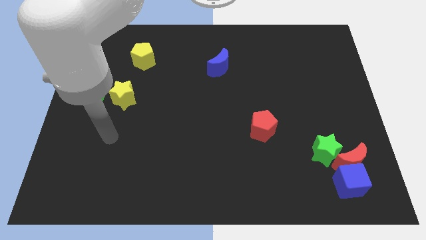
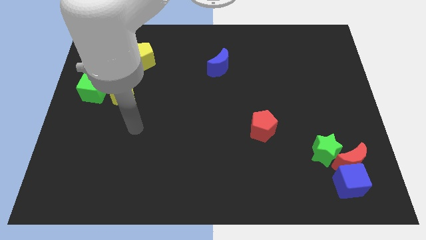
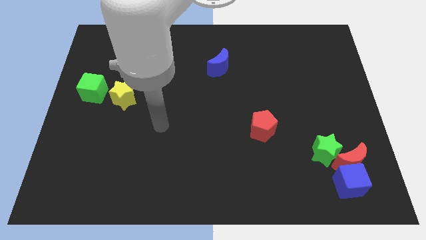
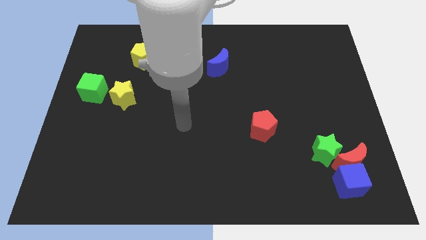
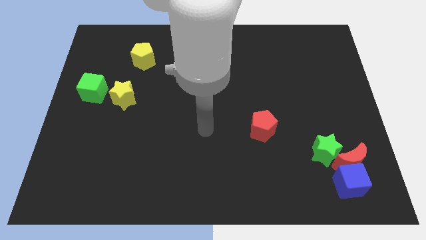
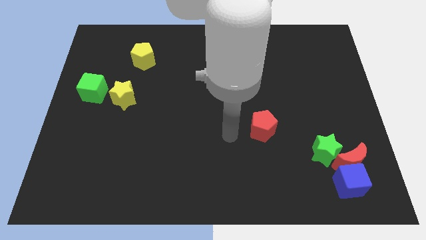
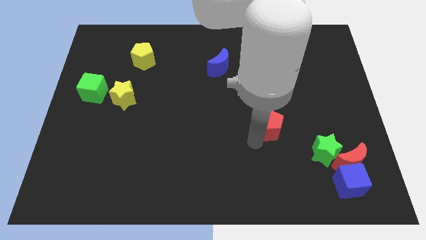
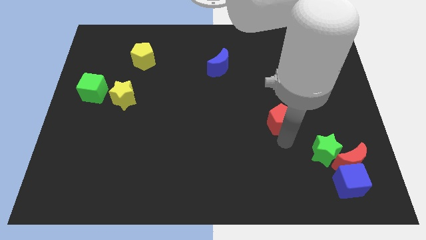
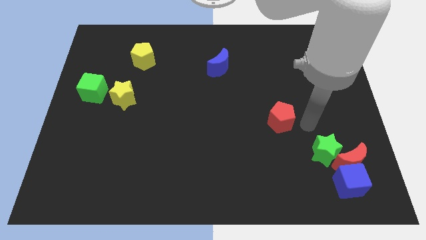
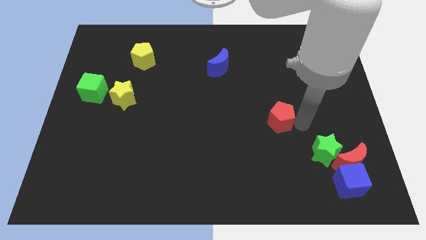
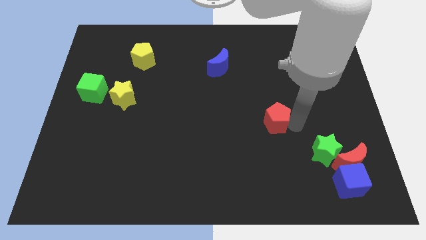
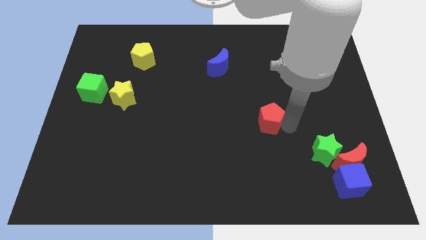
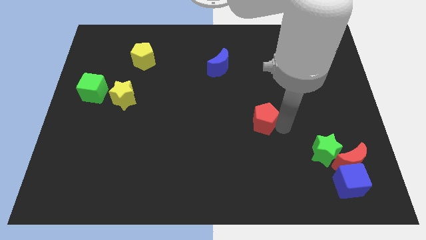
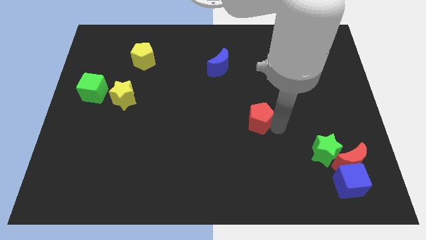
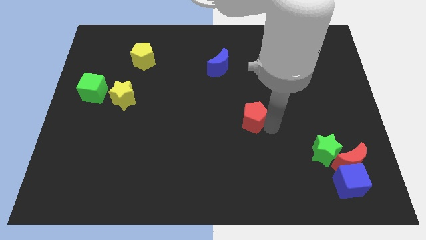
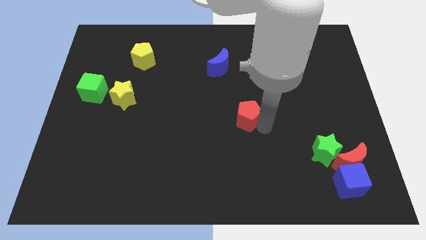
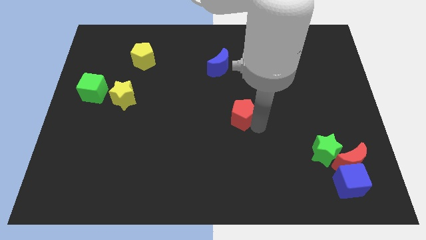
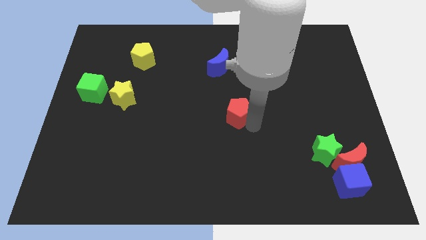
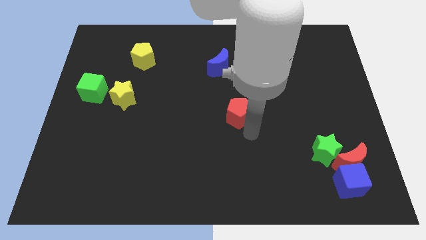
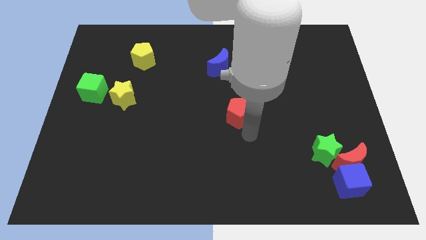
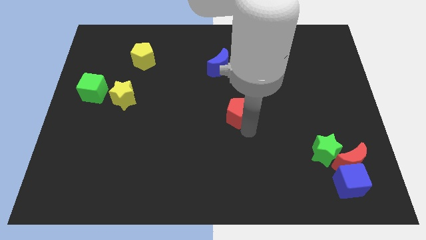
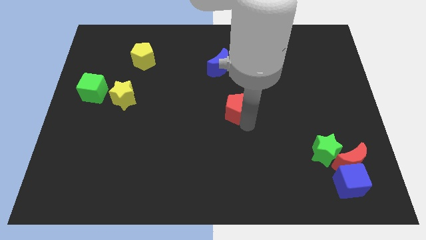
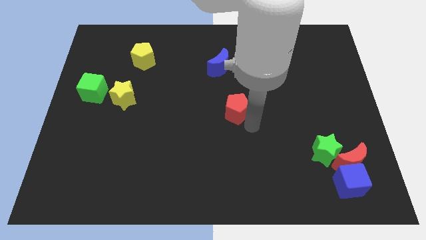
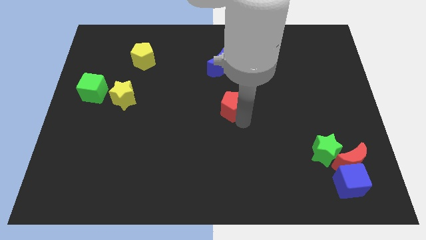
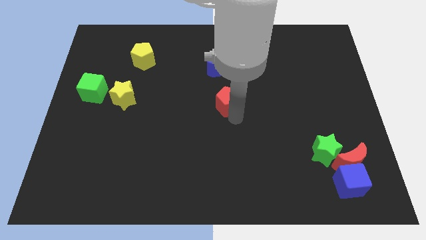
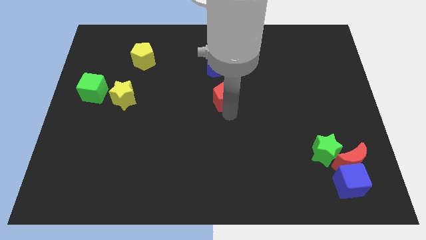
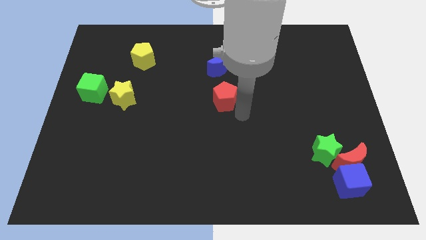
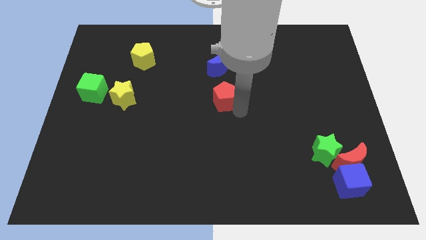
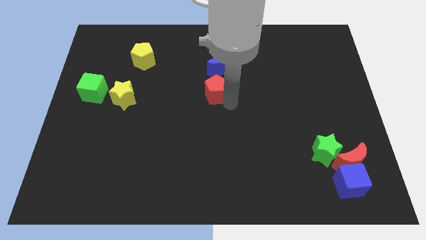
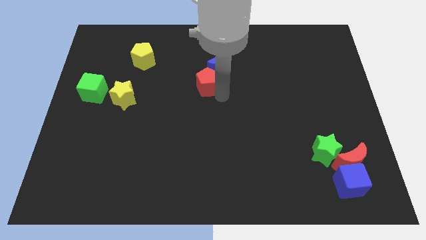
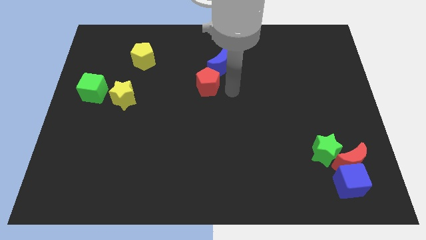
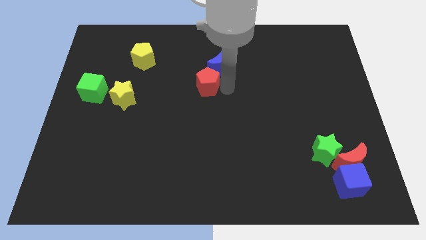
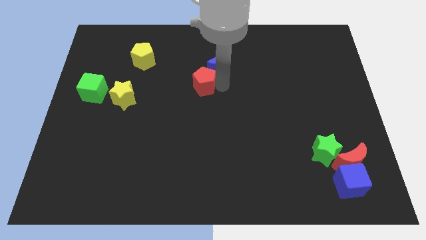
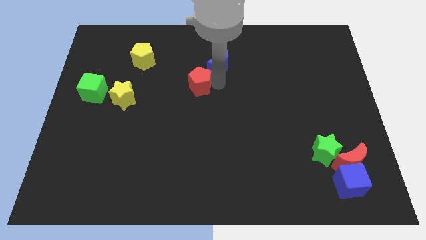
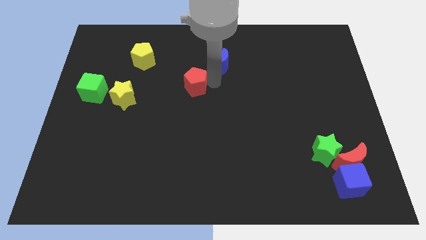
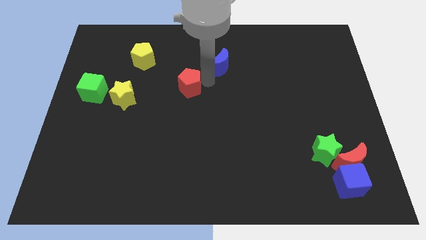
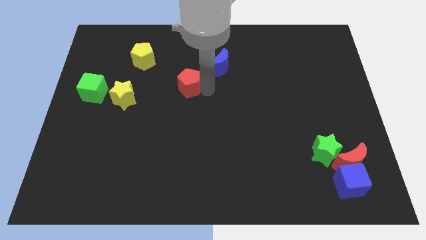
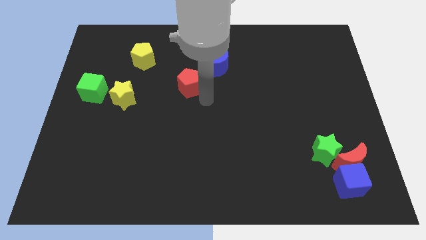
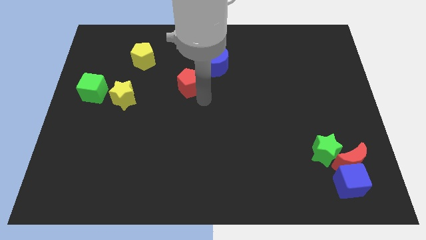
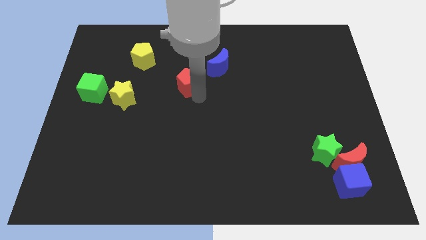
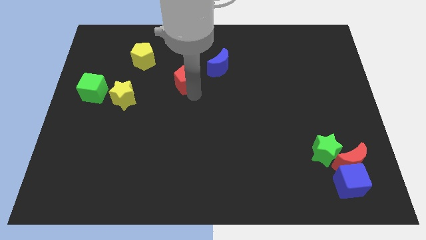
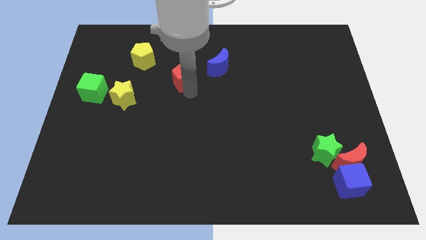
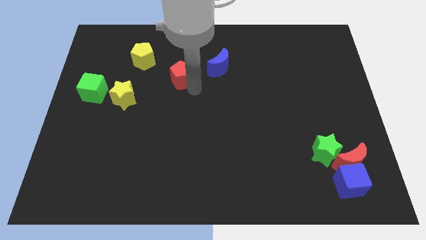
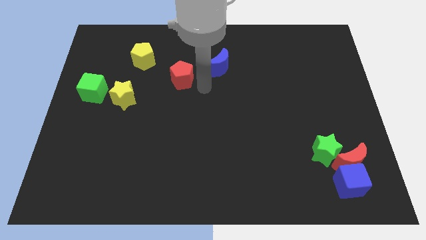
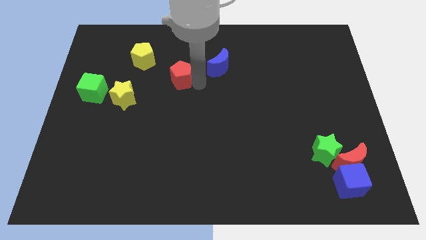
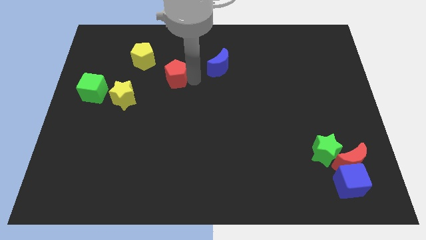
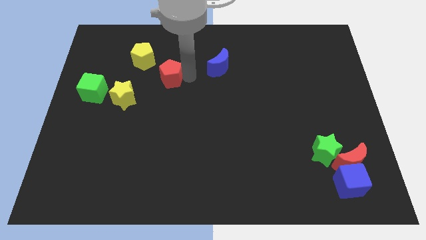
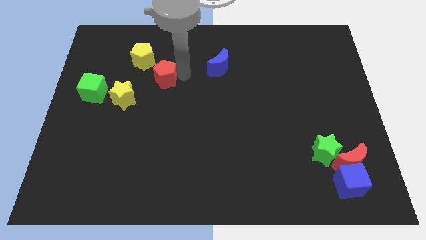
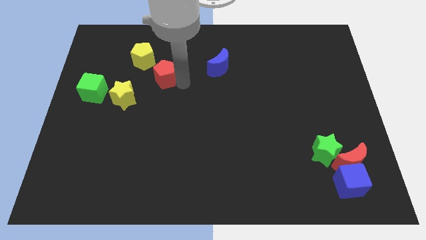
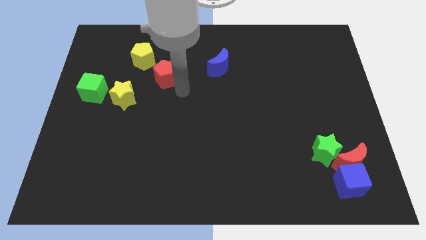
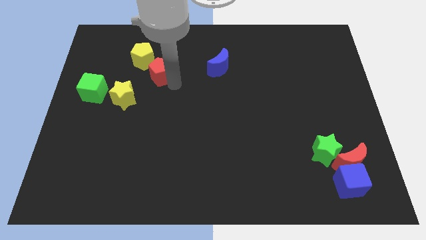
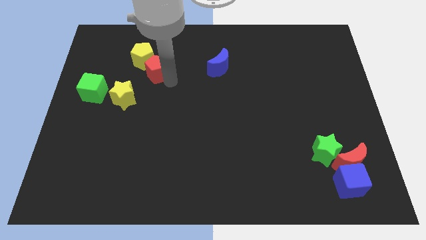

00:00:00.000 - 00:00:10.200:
push the red pentagon towards the yellow pentagon

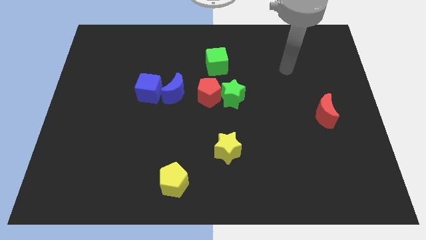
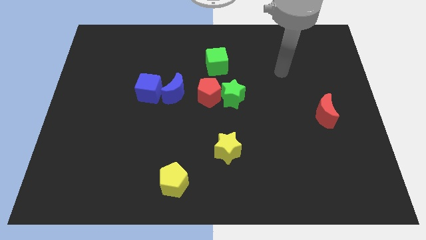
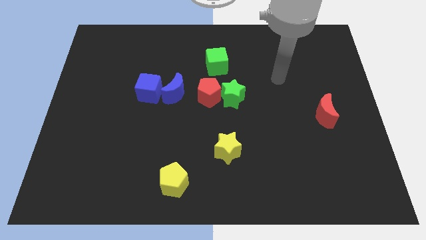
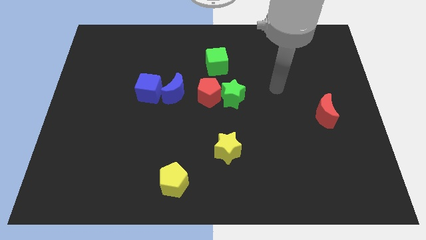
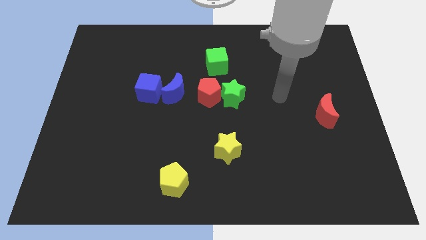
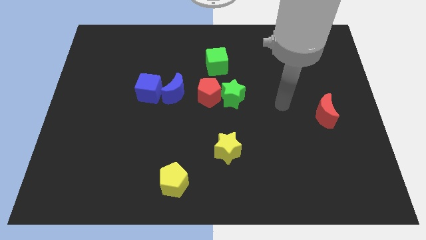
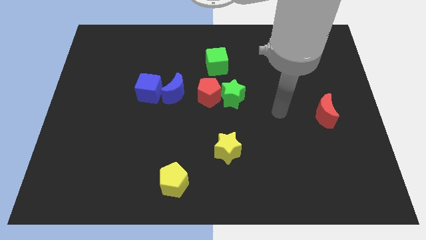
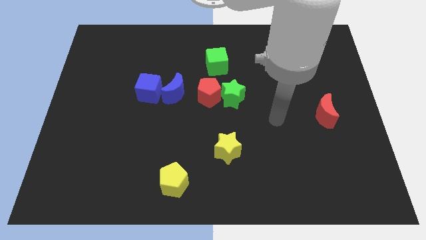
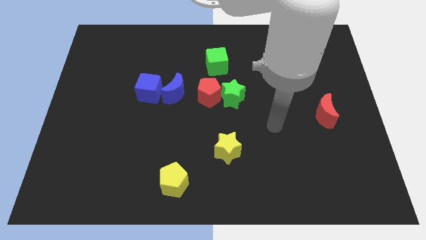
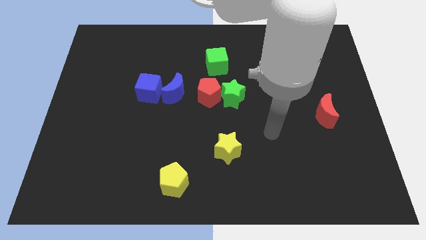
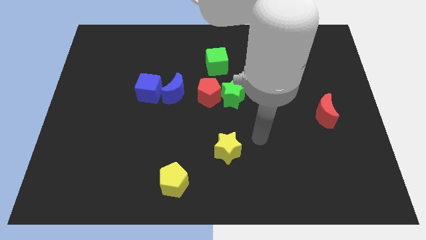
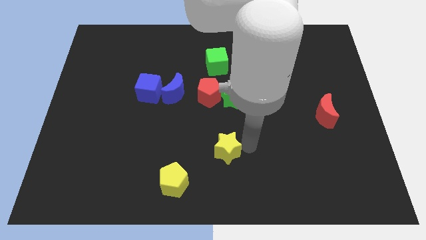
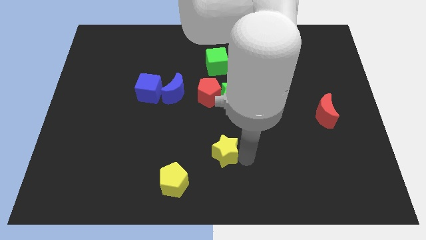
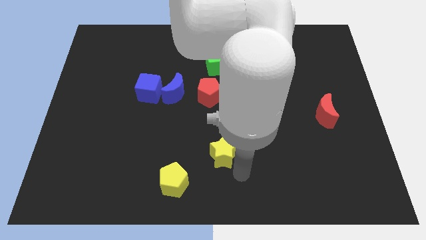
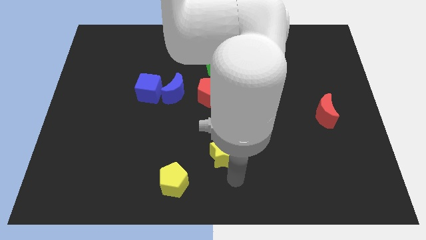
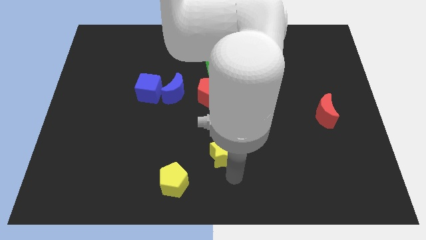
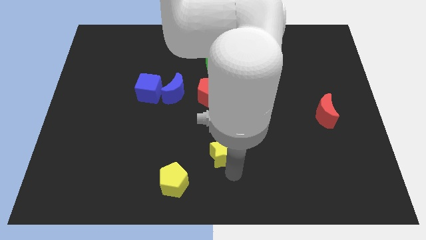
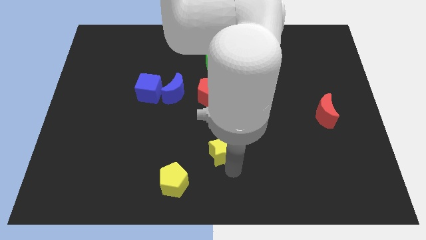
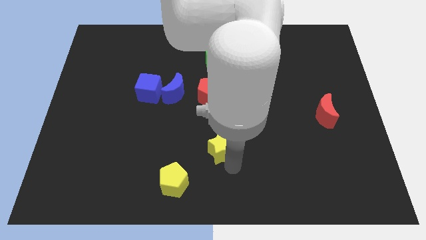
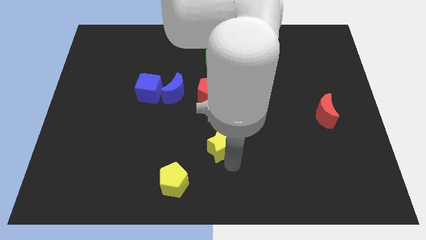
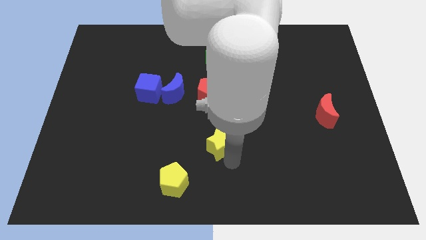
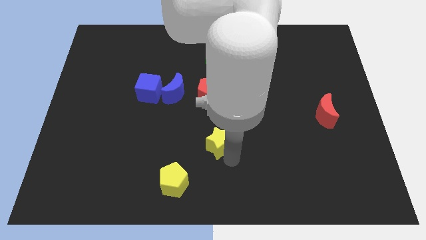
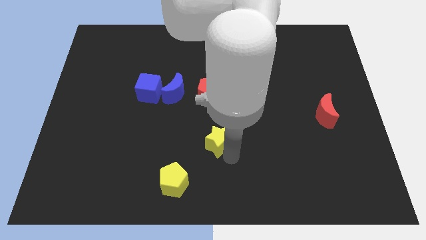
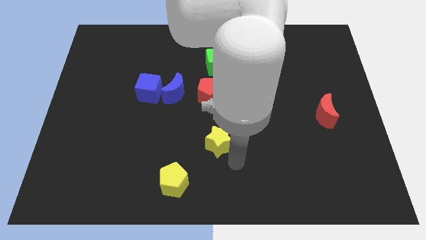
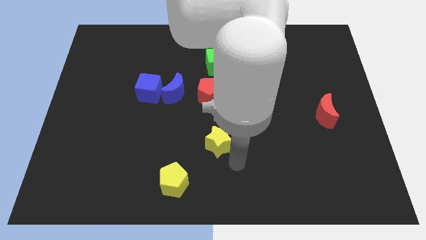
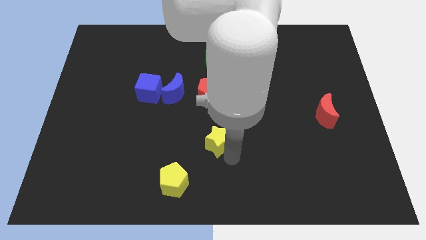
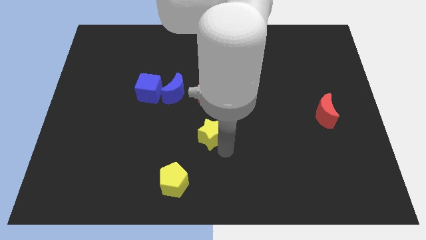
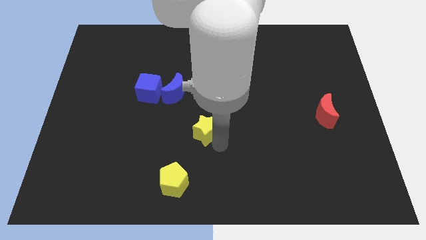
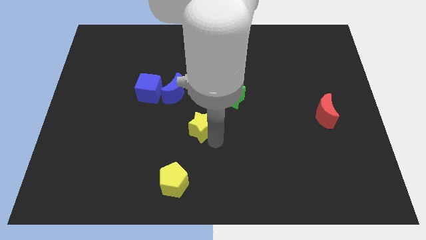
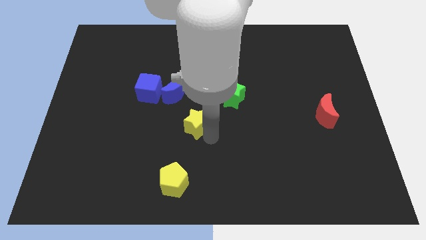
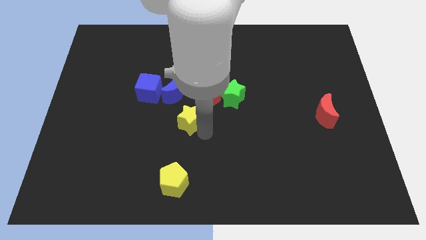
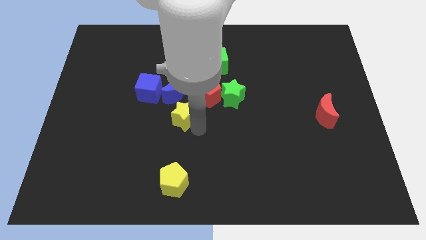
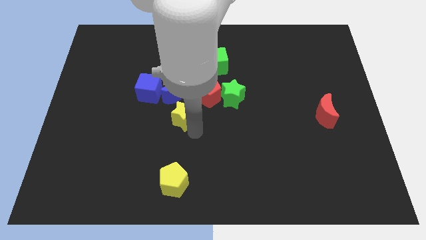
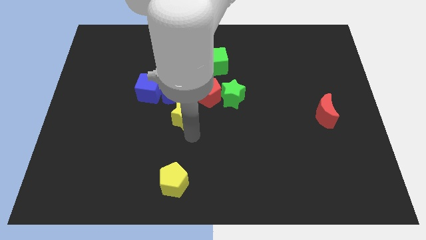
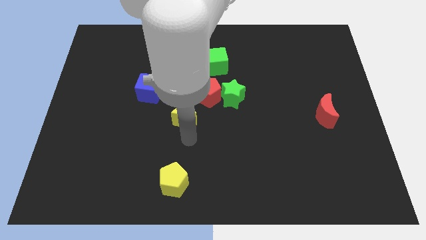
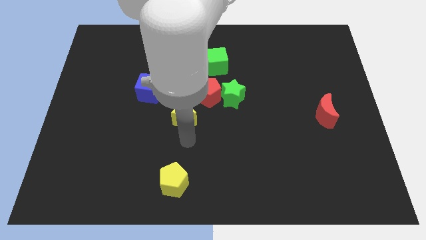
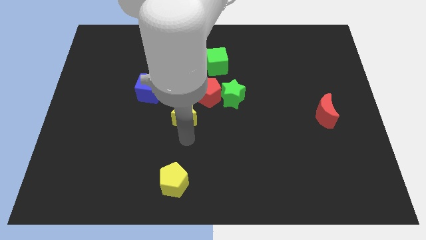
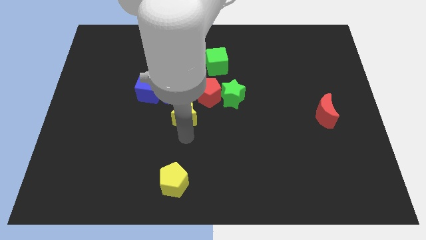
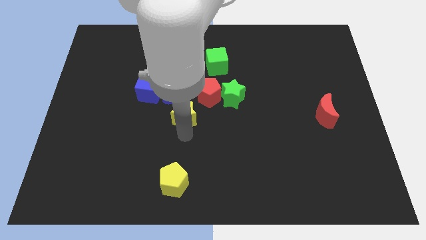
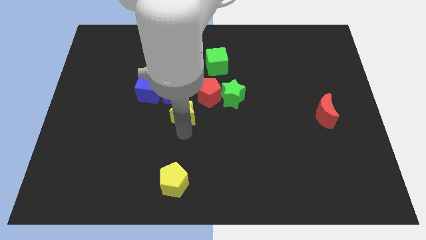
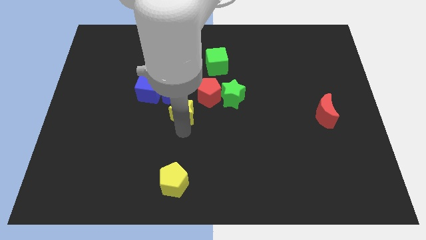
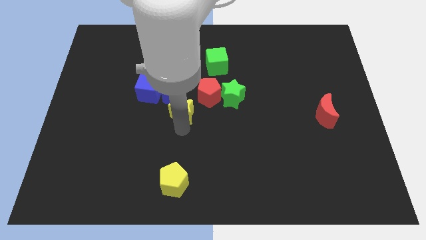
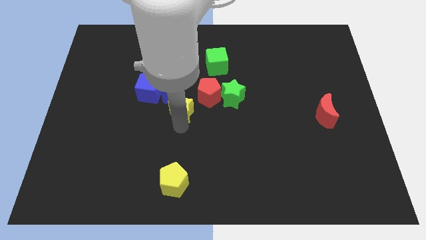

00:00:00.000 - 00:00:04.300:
move the yellow star close to the blue moon
